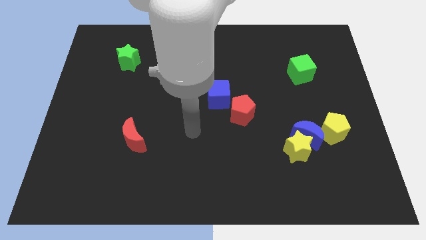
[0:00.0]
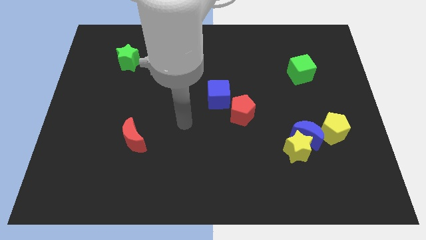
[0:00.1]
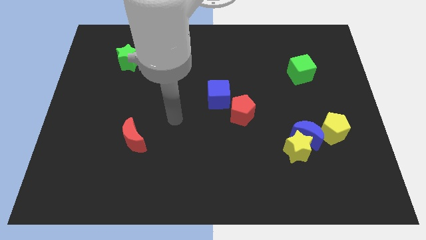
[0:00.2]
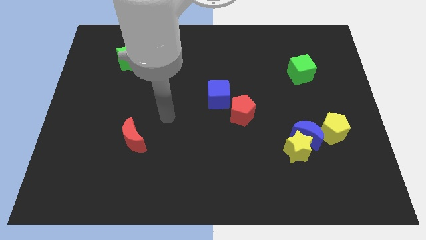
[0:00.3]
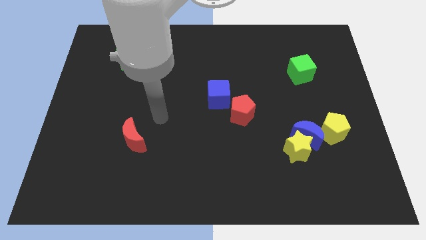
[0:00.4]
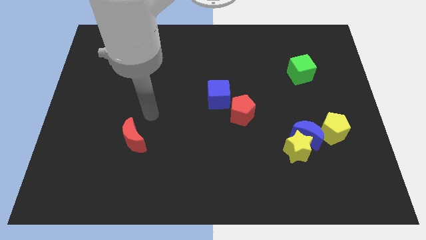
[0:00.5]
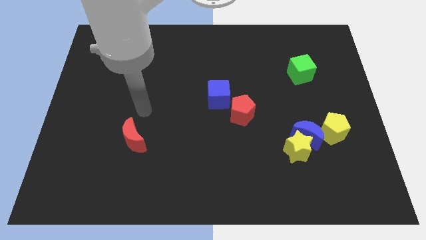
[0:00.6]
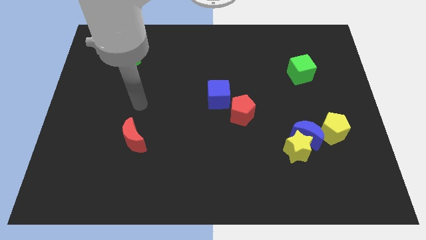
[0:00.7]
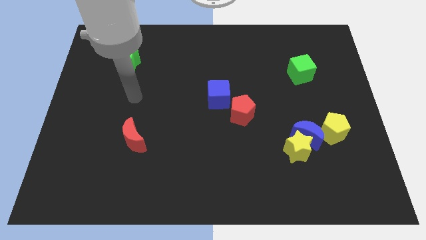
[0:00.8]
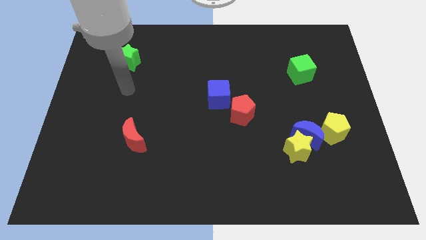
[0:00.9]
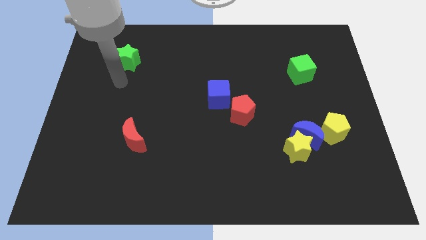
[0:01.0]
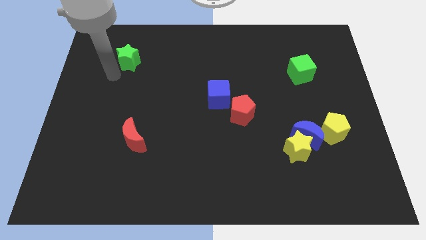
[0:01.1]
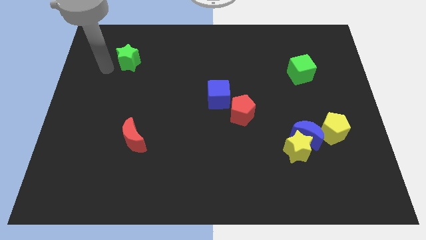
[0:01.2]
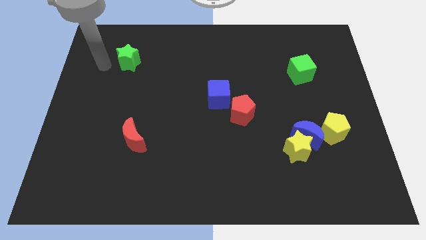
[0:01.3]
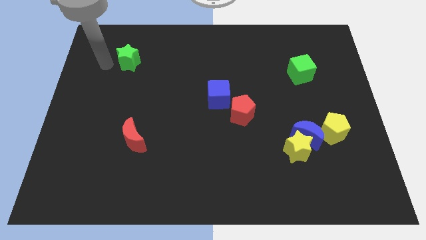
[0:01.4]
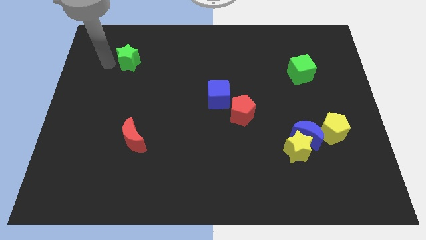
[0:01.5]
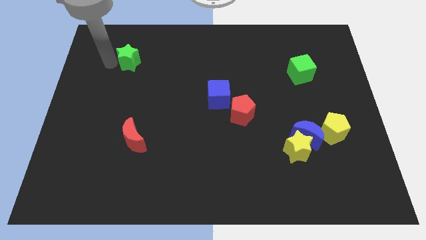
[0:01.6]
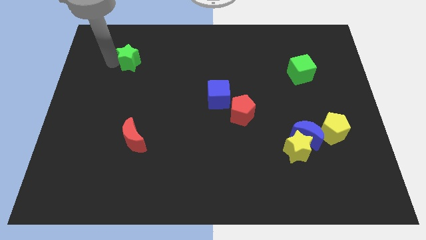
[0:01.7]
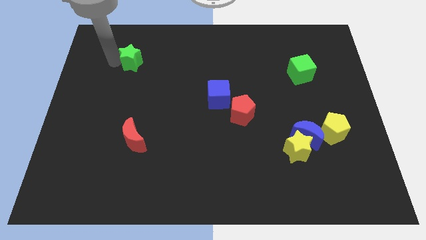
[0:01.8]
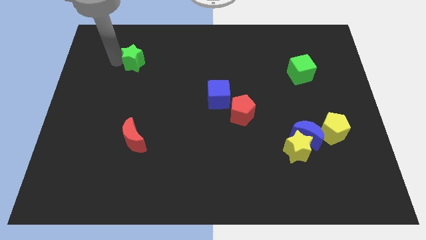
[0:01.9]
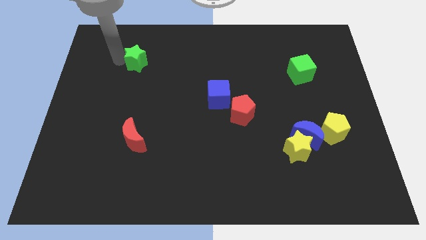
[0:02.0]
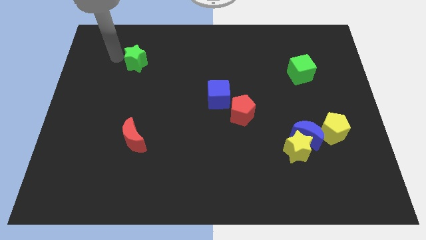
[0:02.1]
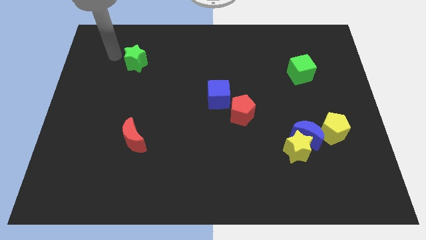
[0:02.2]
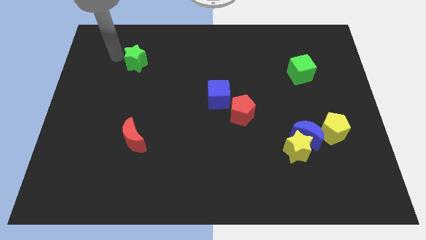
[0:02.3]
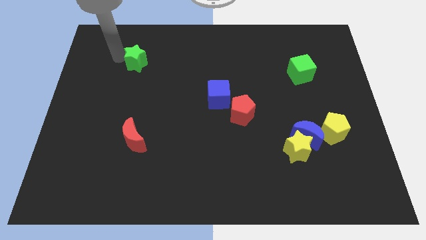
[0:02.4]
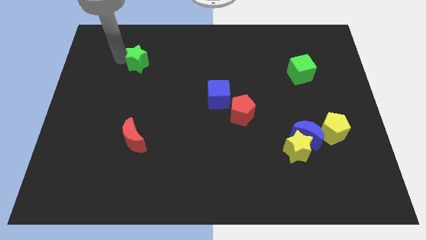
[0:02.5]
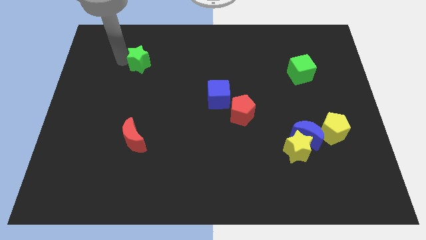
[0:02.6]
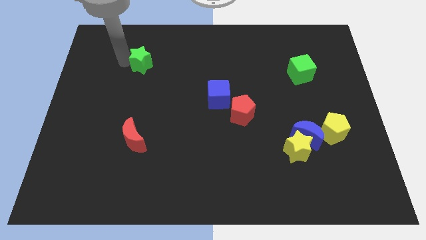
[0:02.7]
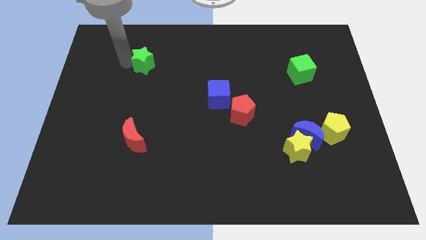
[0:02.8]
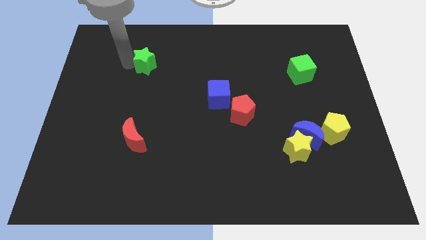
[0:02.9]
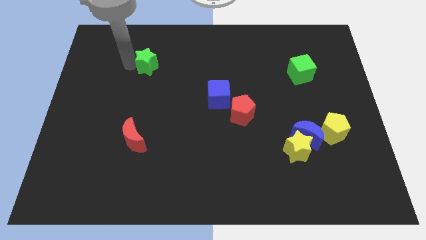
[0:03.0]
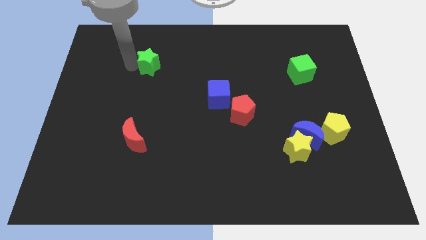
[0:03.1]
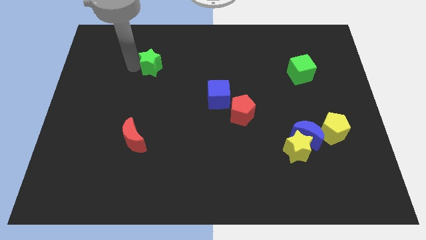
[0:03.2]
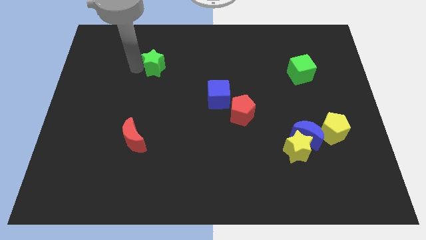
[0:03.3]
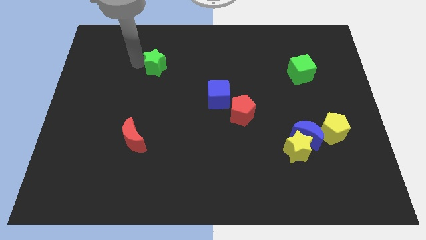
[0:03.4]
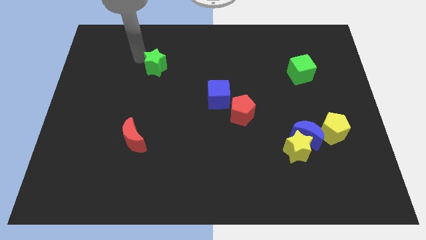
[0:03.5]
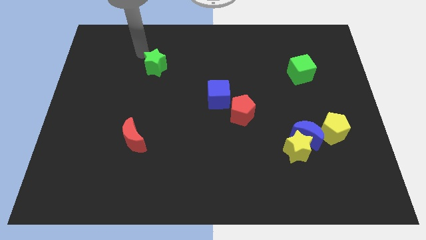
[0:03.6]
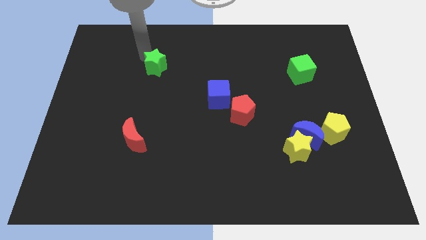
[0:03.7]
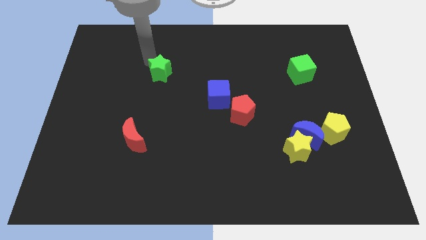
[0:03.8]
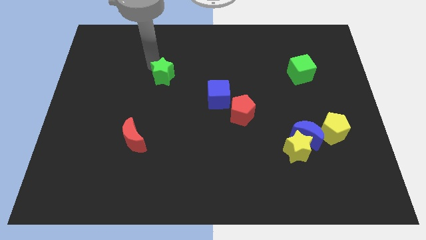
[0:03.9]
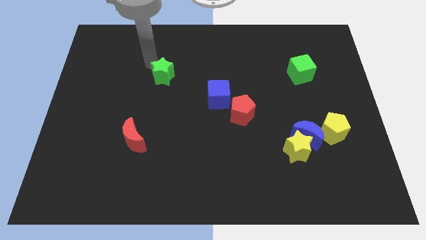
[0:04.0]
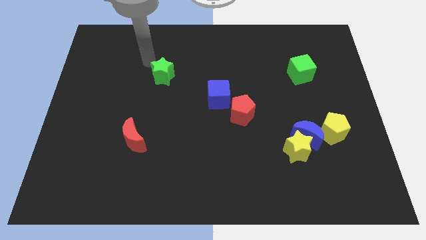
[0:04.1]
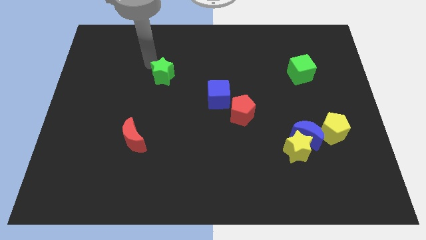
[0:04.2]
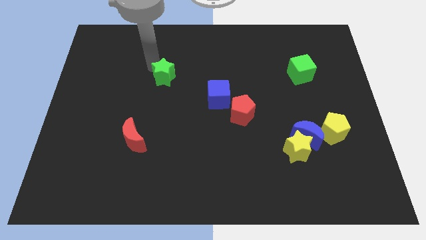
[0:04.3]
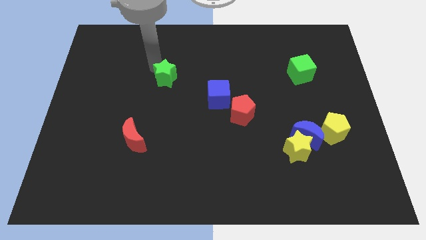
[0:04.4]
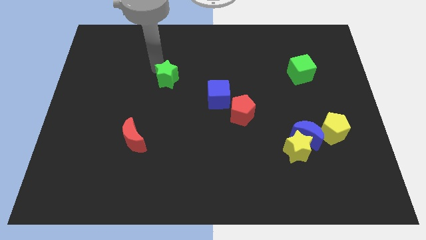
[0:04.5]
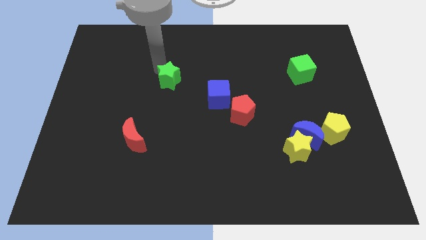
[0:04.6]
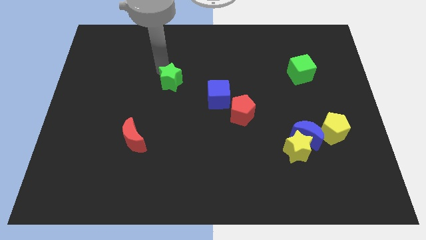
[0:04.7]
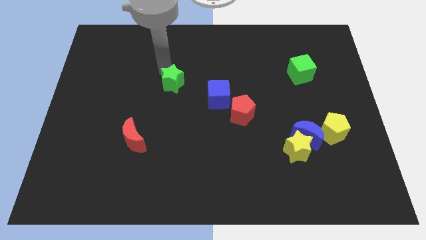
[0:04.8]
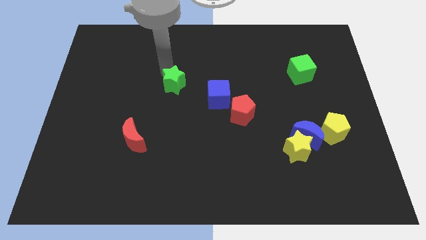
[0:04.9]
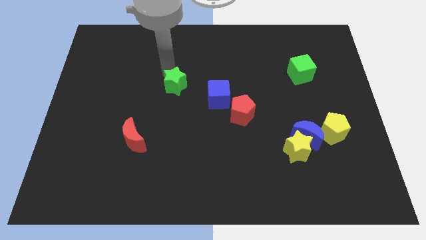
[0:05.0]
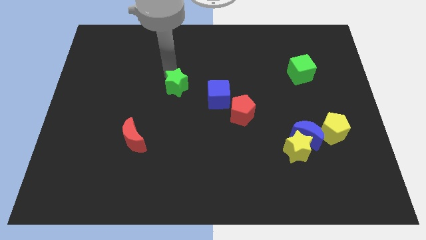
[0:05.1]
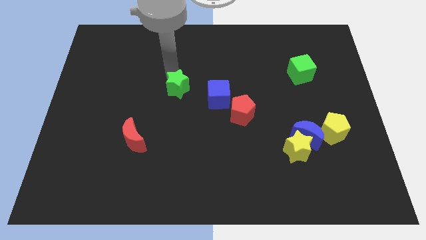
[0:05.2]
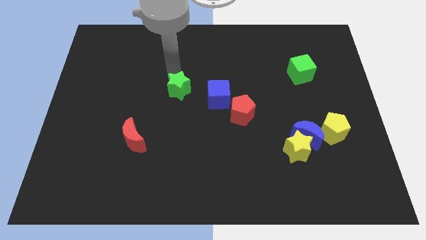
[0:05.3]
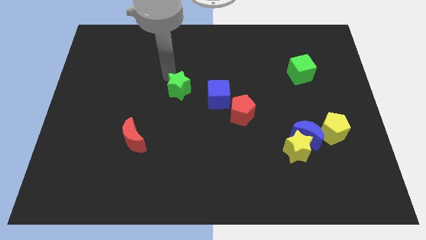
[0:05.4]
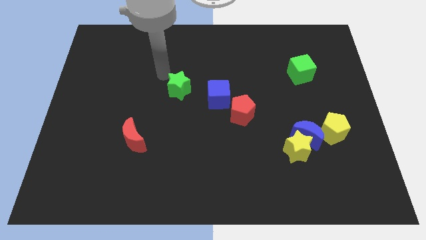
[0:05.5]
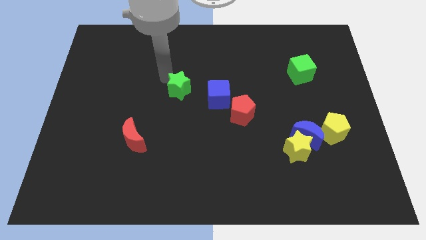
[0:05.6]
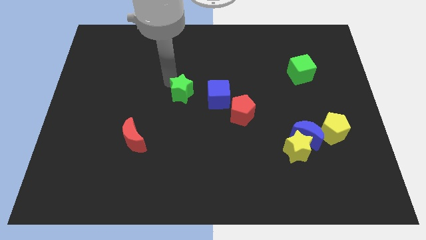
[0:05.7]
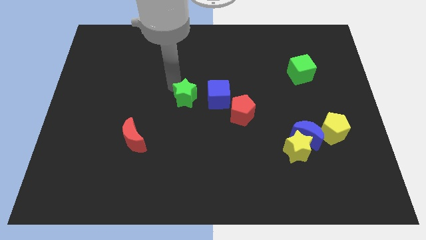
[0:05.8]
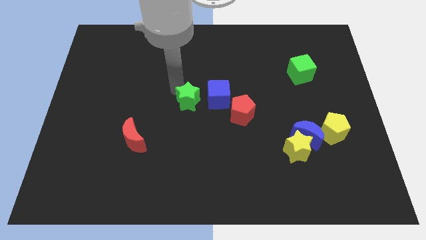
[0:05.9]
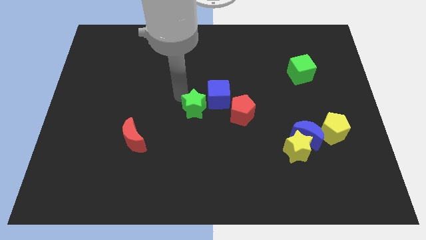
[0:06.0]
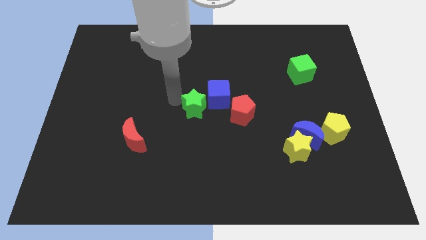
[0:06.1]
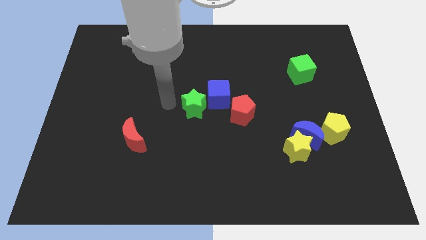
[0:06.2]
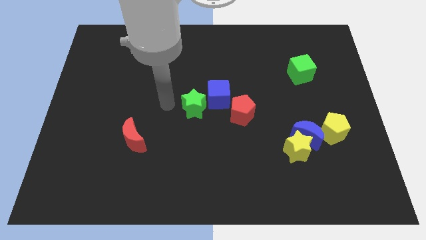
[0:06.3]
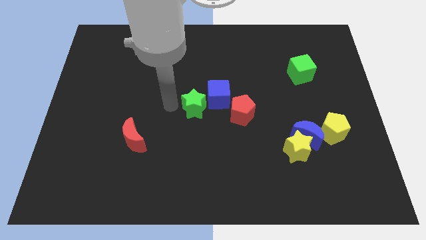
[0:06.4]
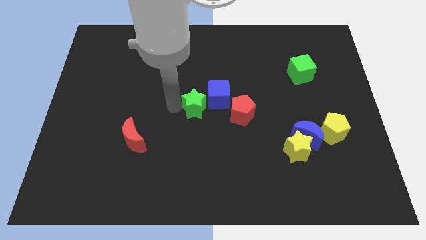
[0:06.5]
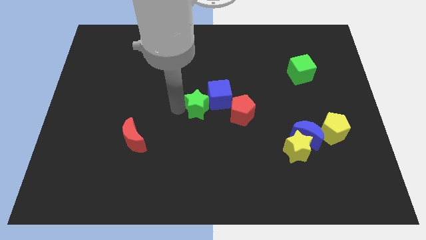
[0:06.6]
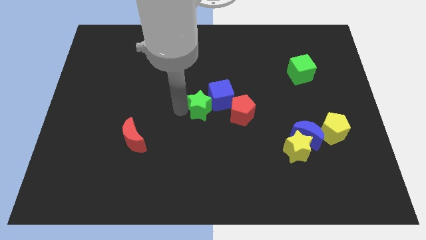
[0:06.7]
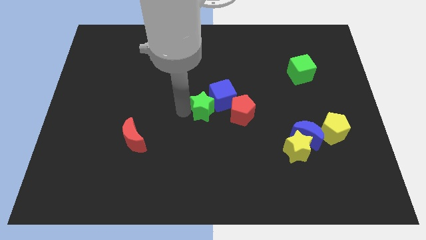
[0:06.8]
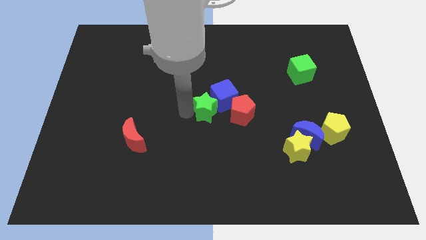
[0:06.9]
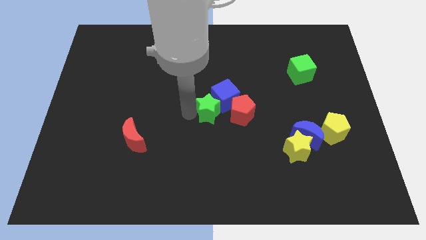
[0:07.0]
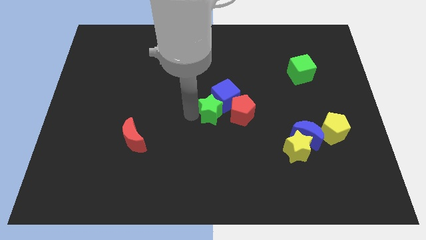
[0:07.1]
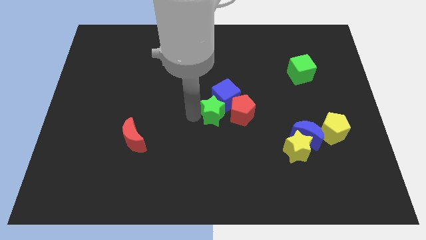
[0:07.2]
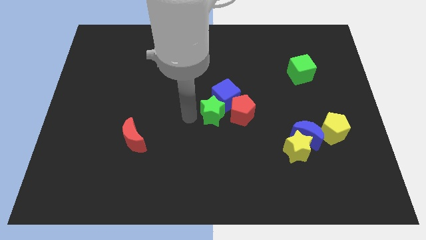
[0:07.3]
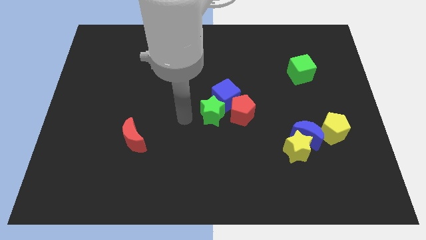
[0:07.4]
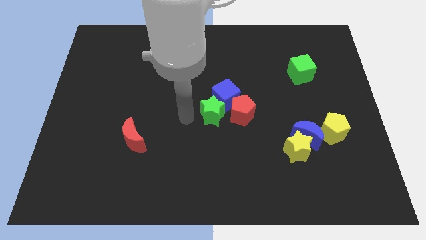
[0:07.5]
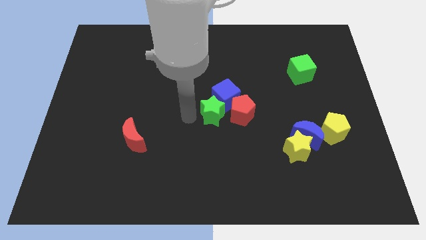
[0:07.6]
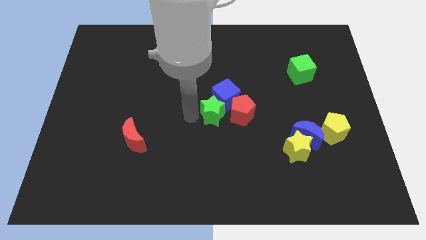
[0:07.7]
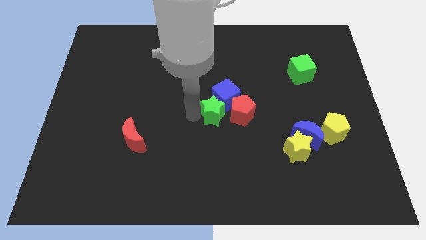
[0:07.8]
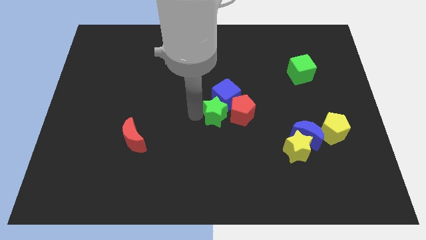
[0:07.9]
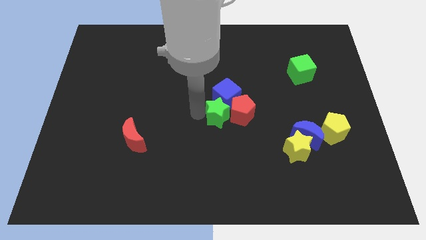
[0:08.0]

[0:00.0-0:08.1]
slide the green star towards the red pentagon
